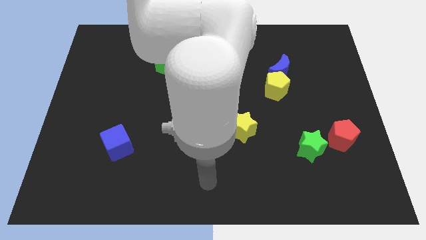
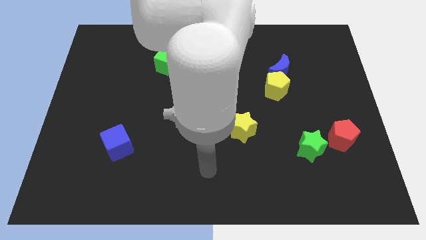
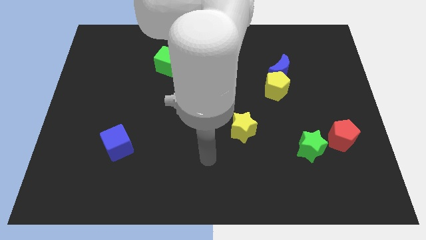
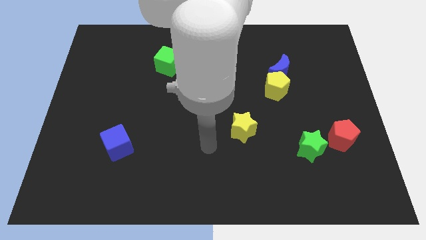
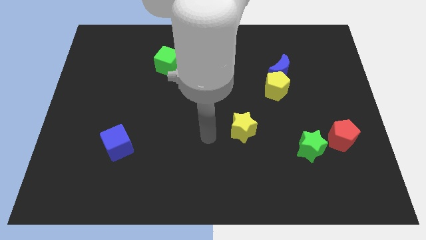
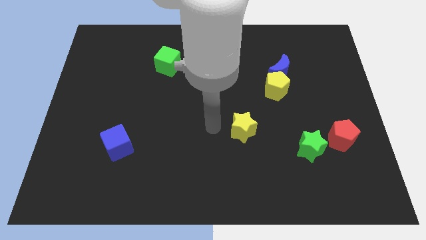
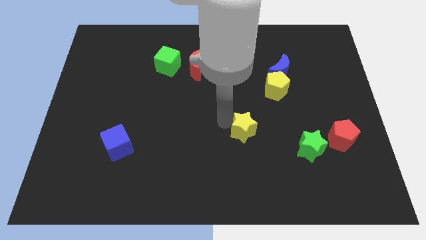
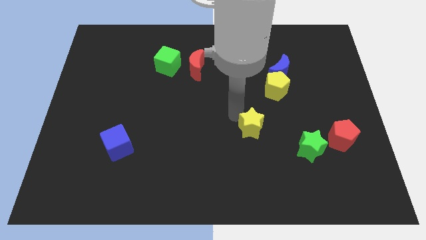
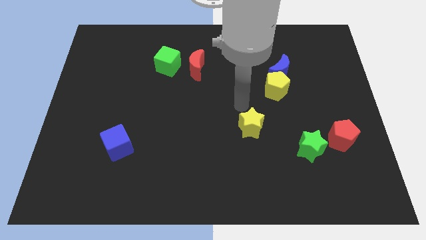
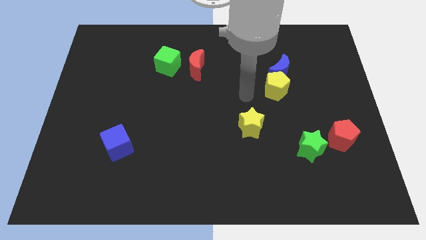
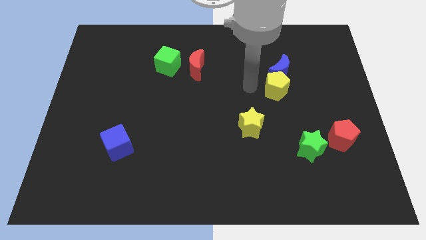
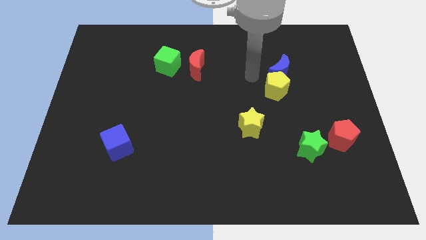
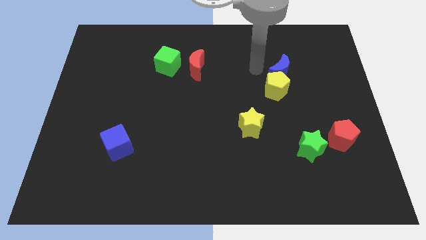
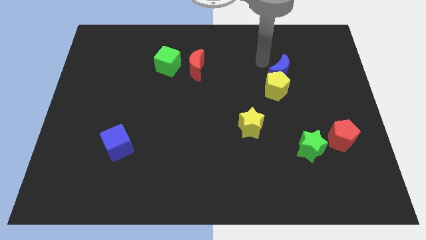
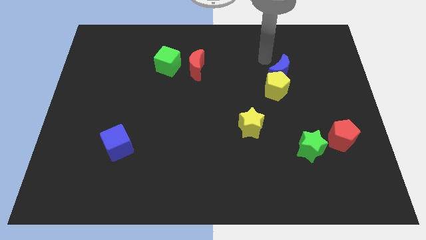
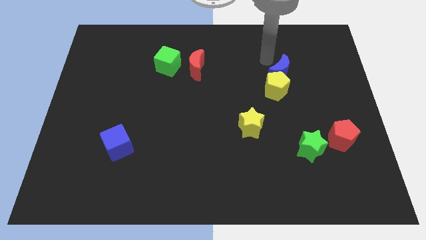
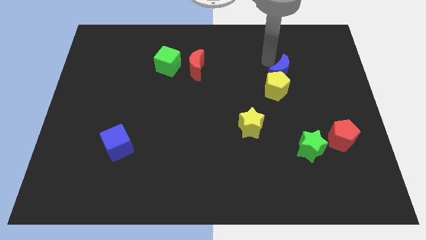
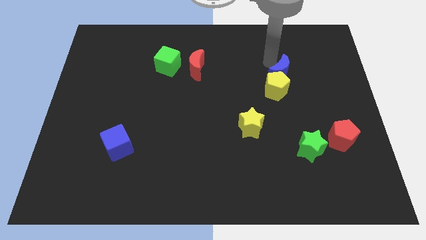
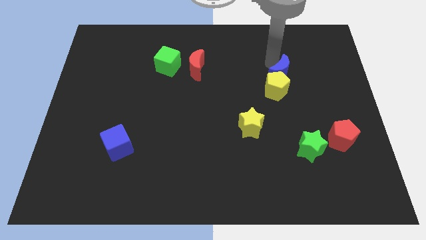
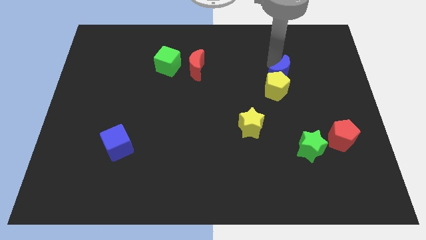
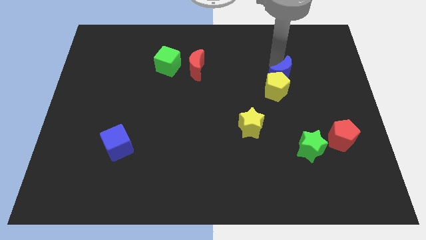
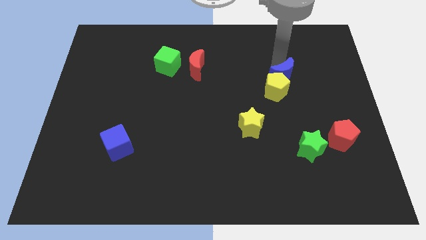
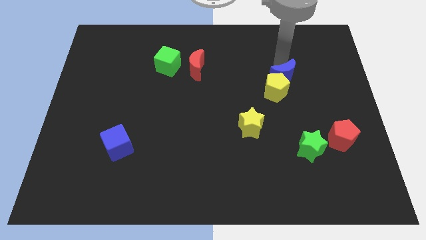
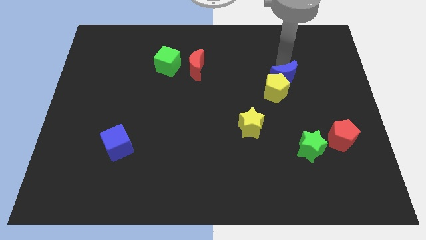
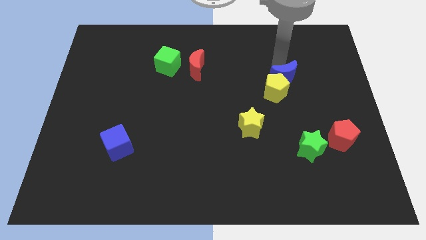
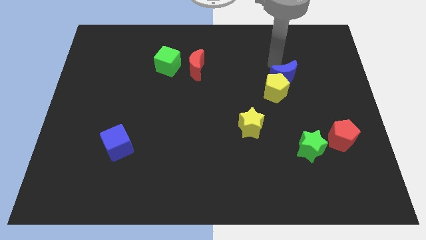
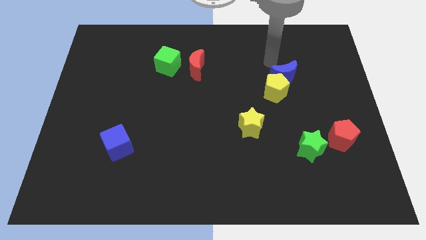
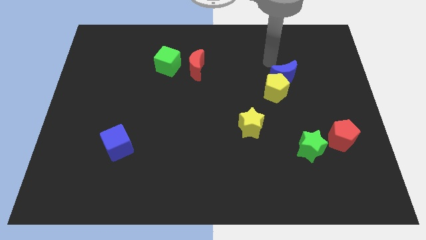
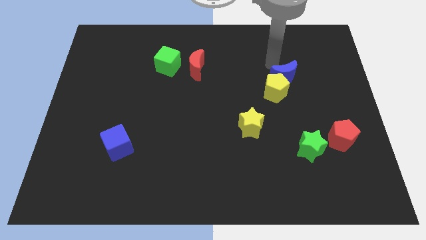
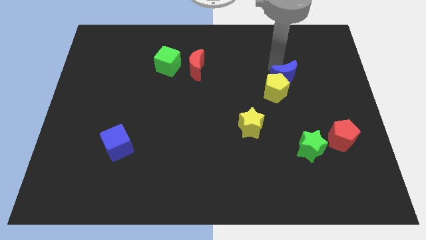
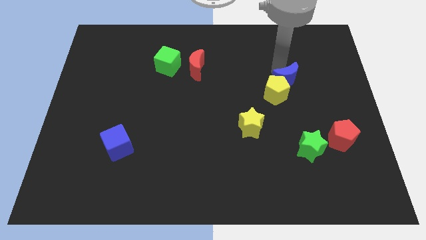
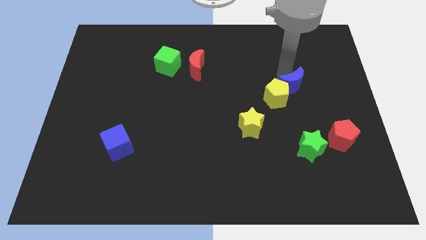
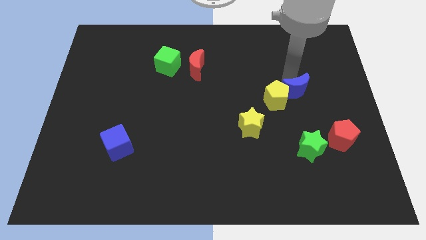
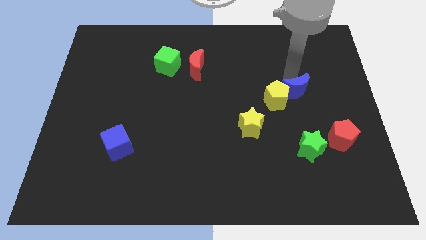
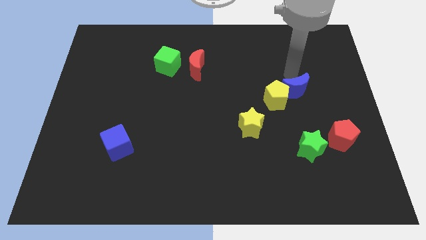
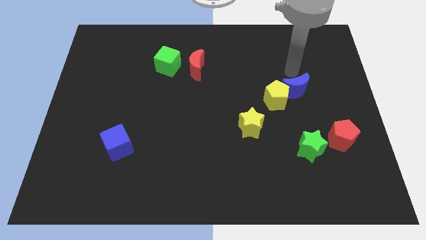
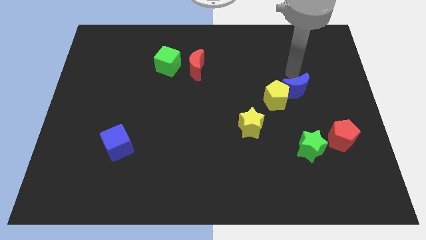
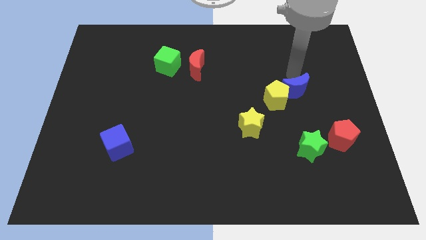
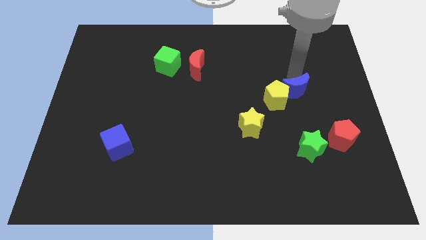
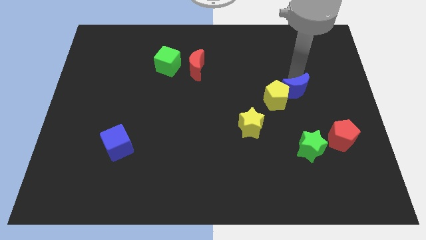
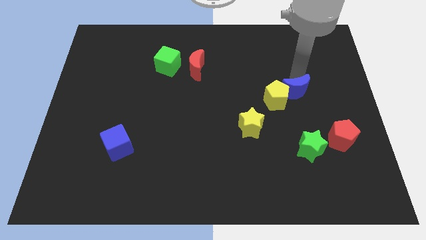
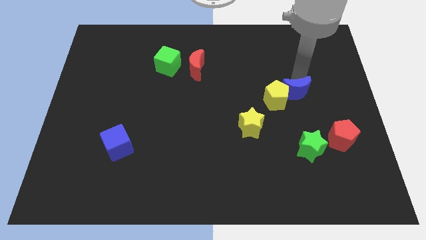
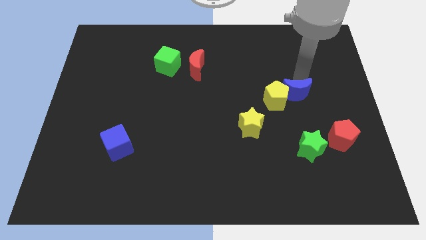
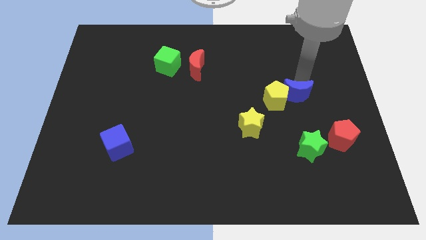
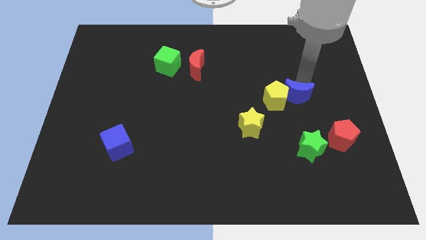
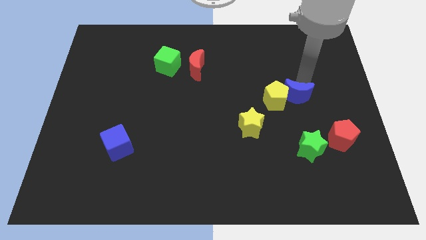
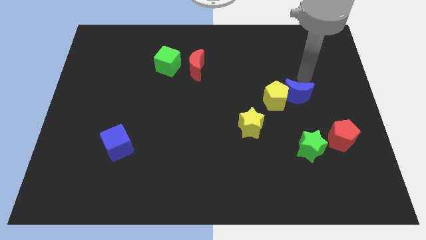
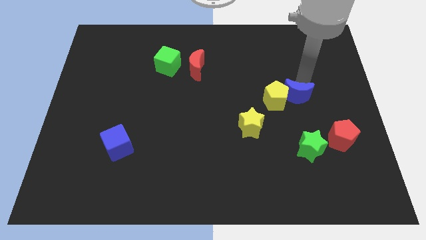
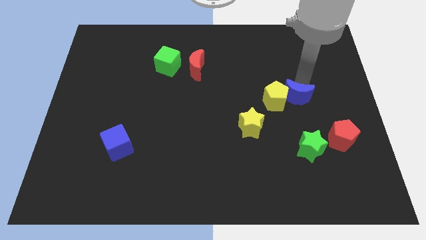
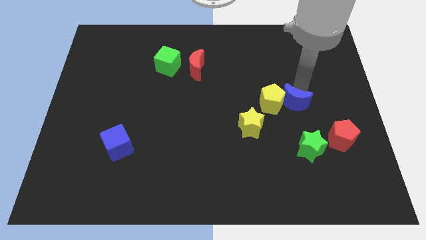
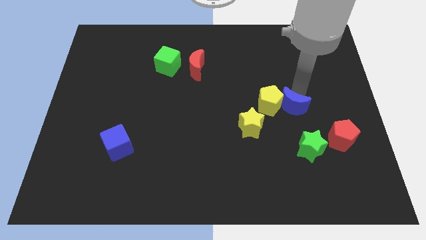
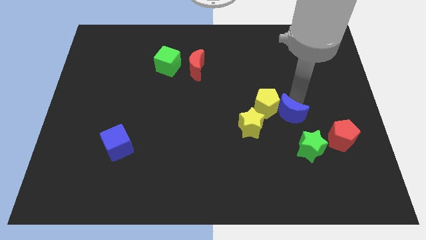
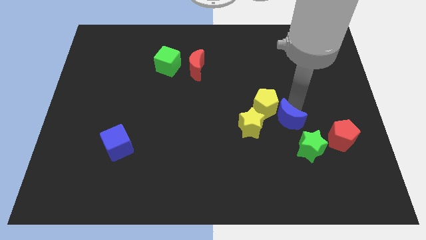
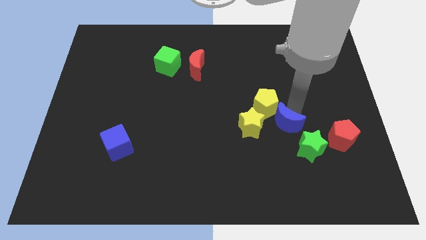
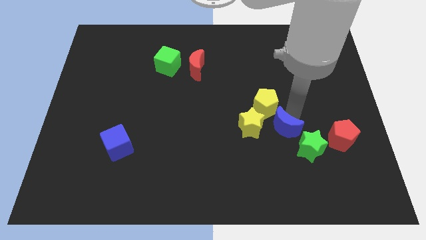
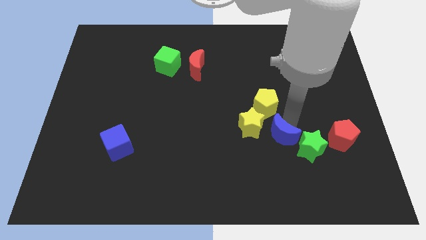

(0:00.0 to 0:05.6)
slide the blue moon to the left of the green star

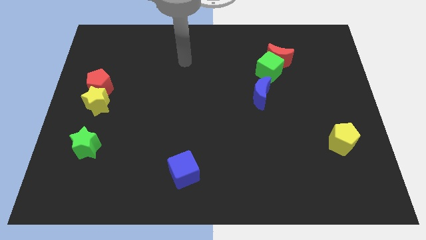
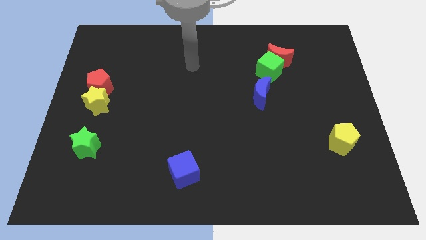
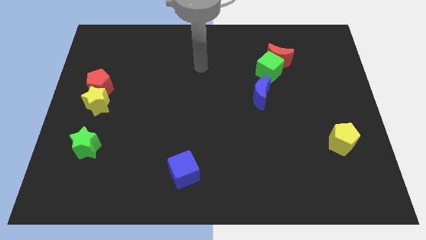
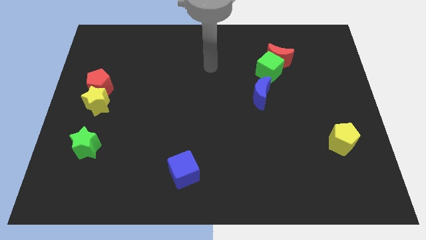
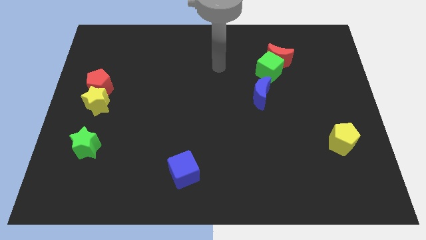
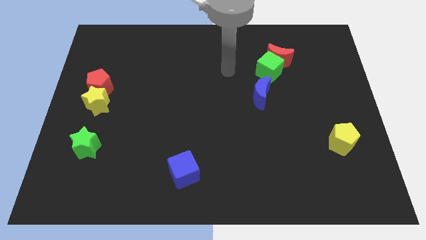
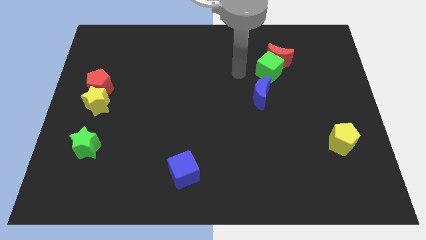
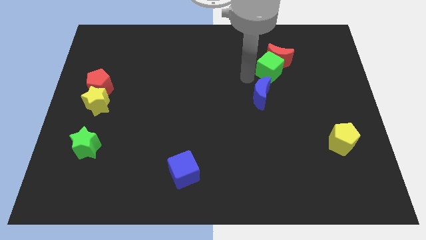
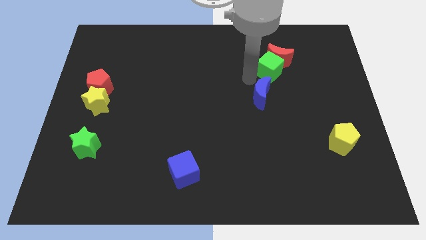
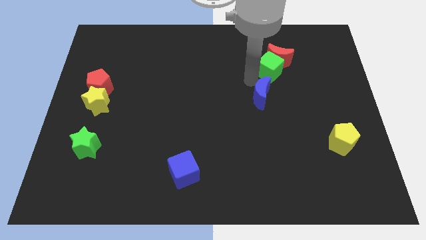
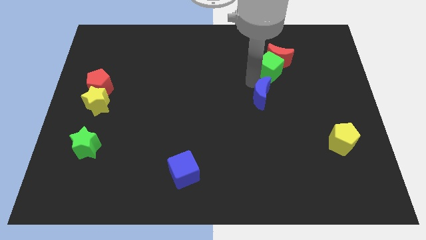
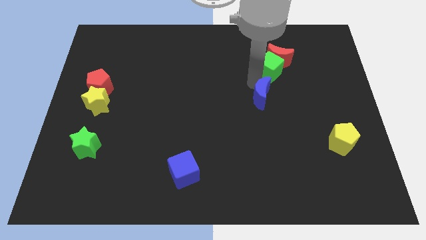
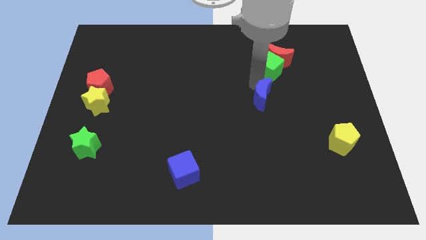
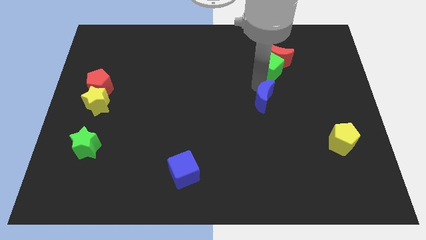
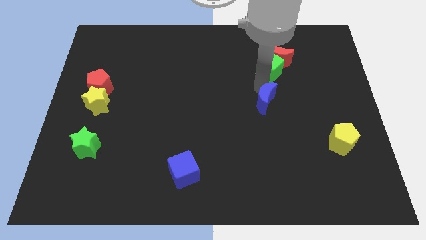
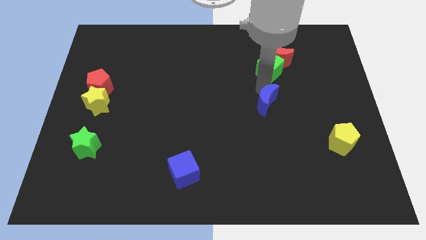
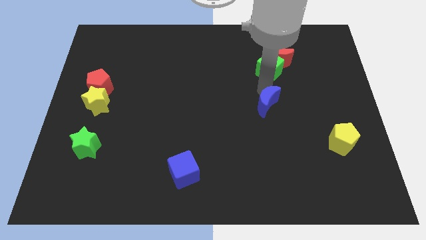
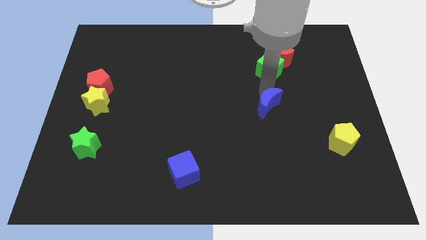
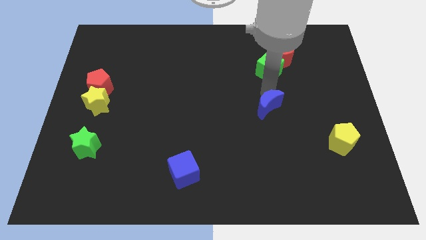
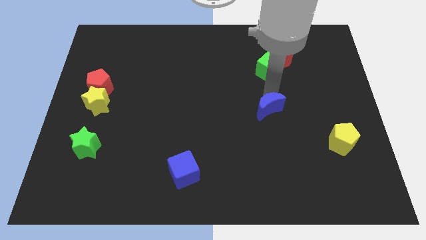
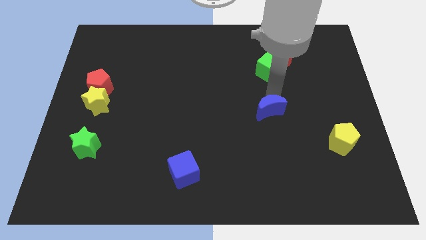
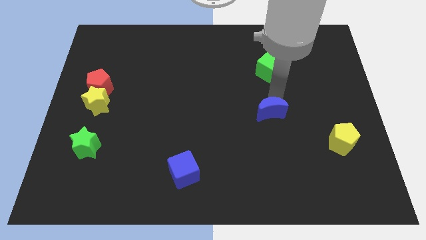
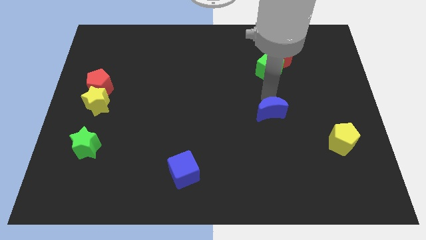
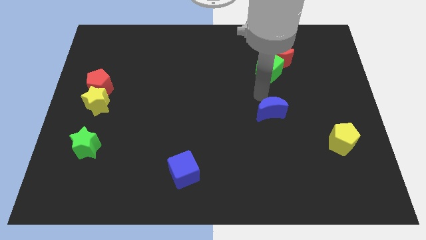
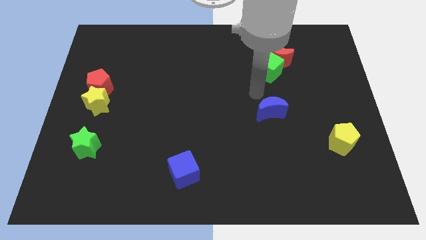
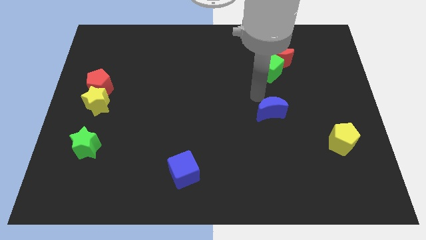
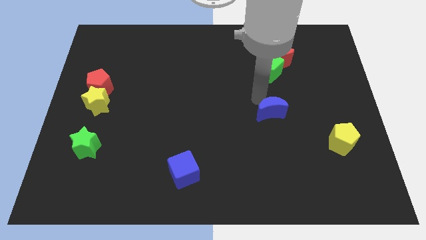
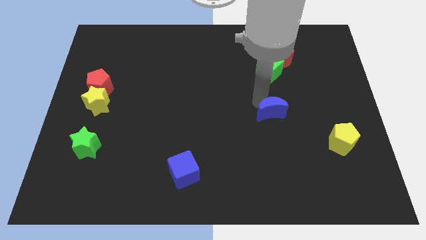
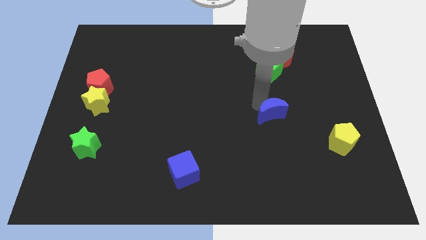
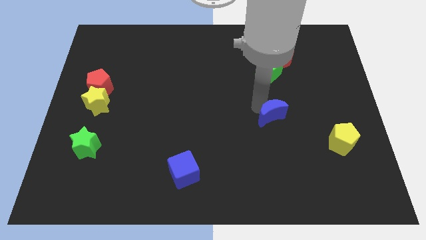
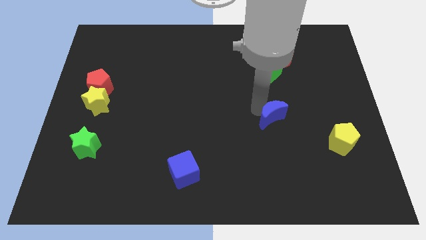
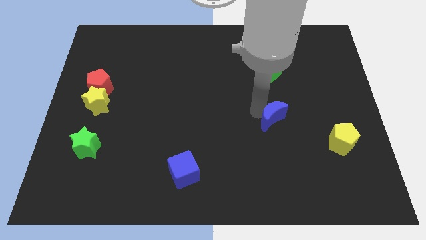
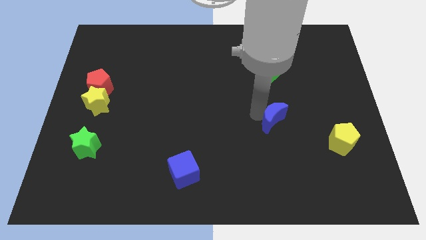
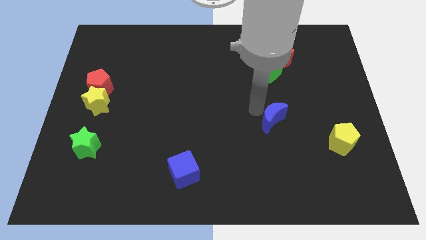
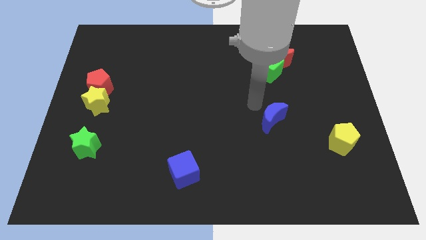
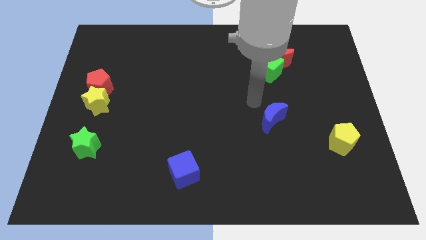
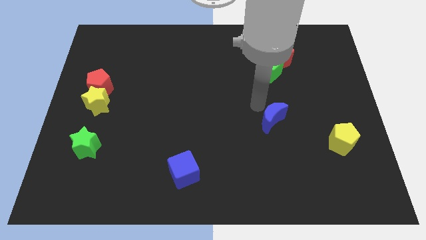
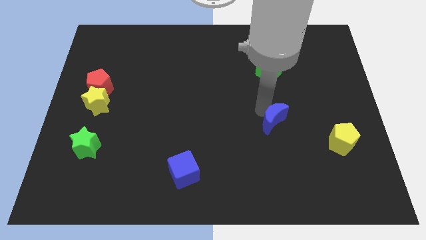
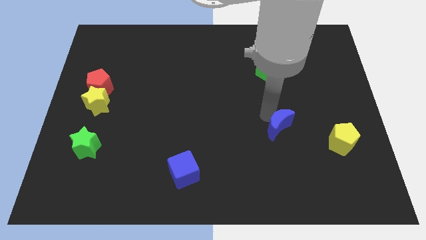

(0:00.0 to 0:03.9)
push the blue moon to the left side of the yellow pentagon
